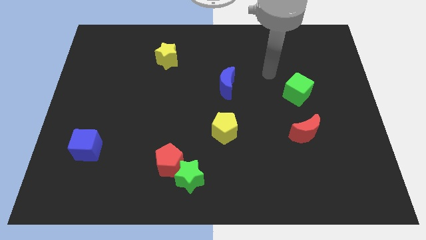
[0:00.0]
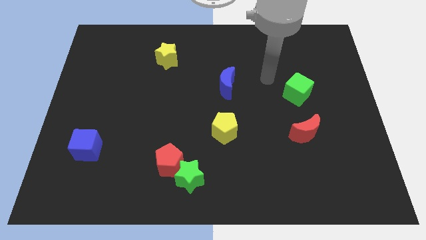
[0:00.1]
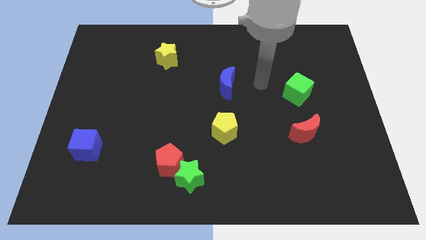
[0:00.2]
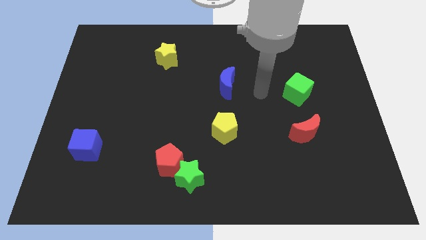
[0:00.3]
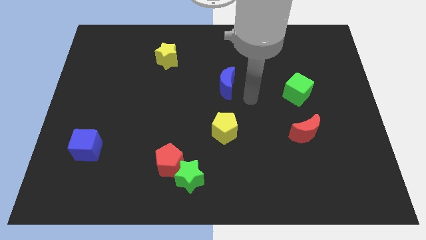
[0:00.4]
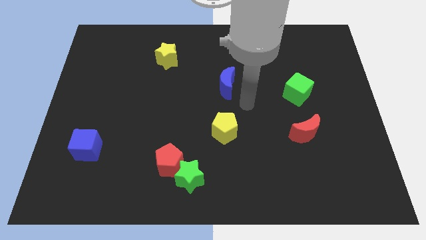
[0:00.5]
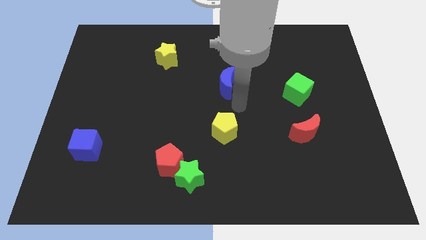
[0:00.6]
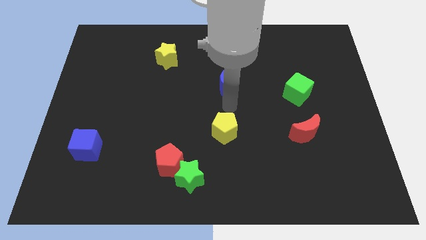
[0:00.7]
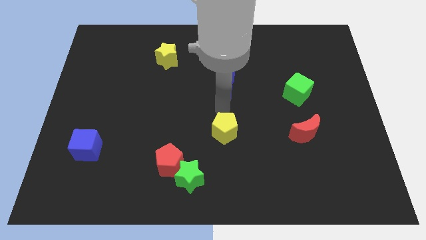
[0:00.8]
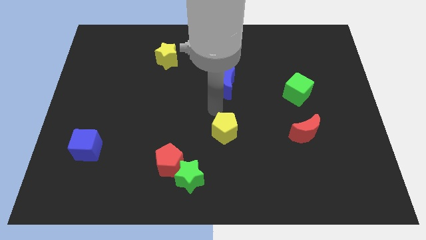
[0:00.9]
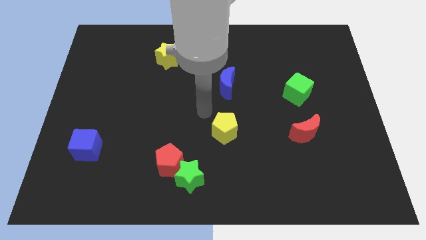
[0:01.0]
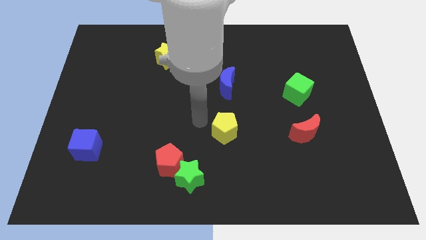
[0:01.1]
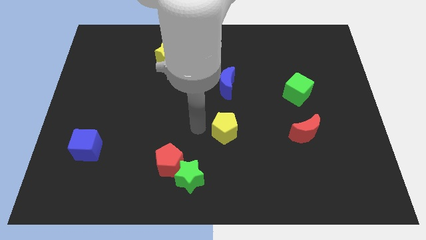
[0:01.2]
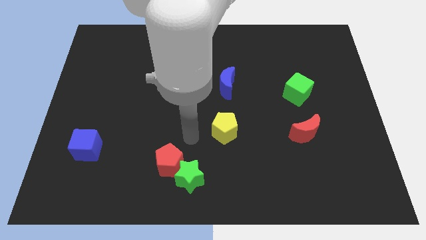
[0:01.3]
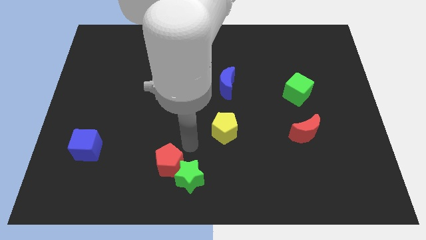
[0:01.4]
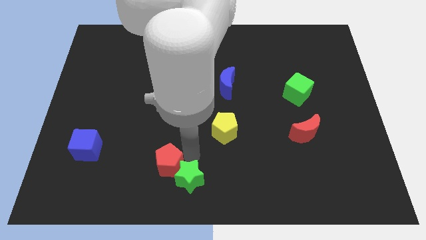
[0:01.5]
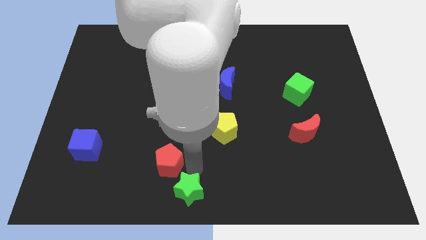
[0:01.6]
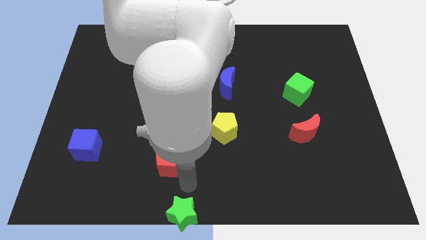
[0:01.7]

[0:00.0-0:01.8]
separate the red pentagon from the green star

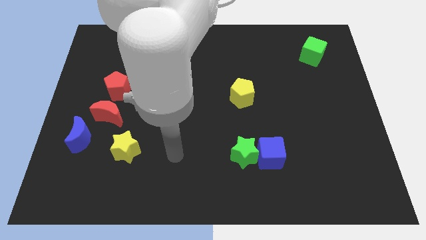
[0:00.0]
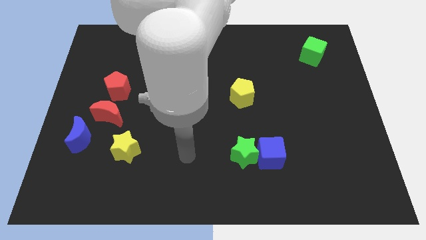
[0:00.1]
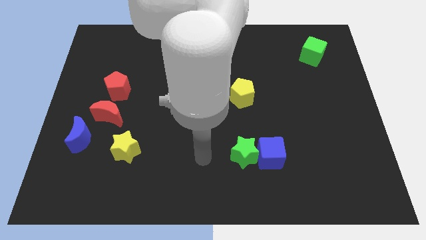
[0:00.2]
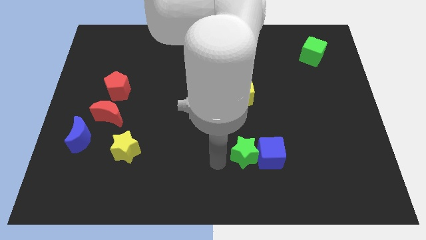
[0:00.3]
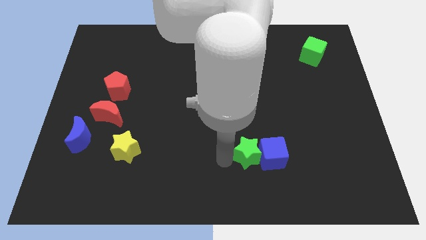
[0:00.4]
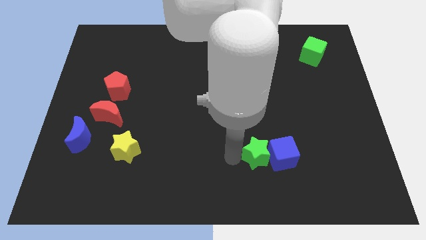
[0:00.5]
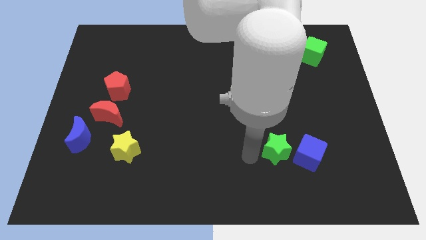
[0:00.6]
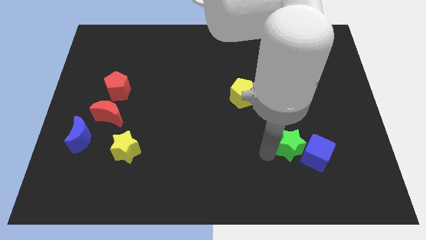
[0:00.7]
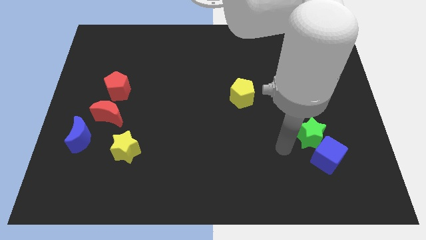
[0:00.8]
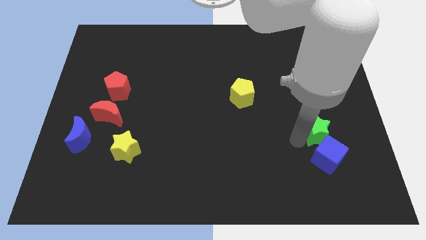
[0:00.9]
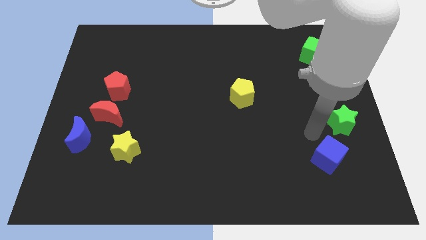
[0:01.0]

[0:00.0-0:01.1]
separate the blue cube from the green star

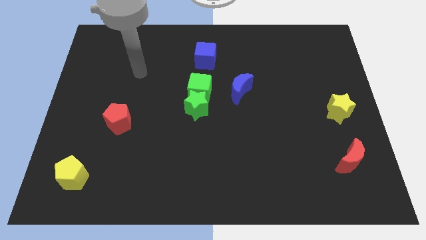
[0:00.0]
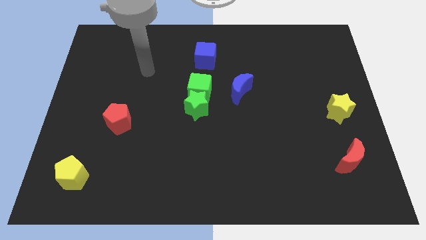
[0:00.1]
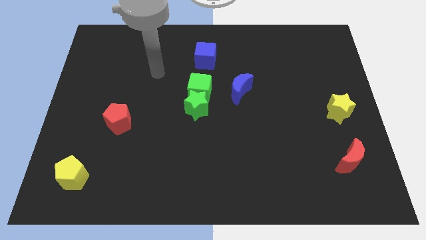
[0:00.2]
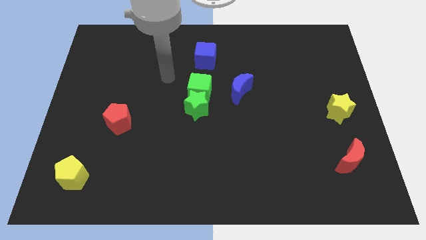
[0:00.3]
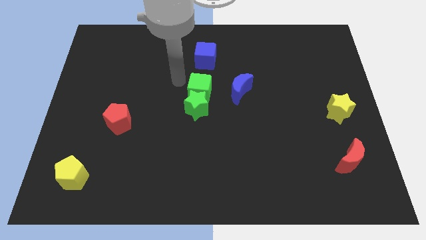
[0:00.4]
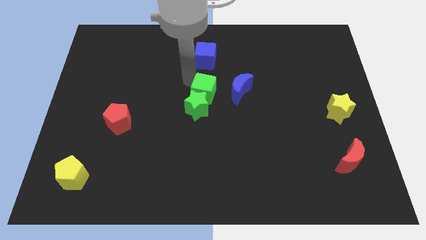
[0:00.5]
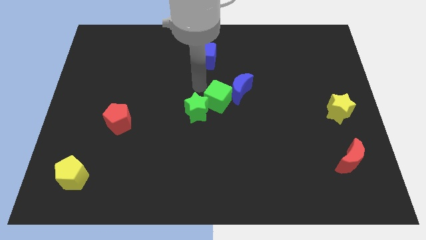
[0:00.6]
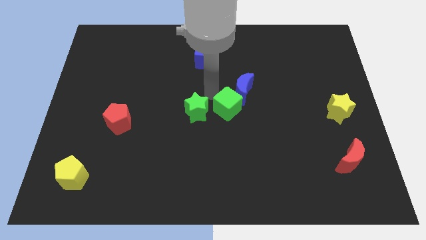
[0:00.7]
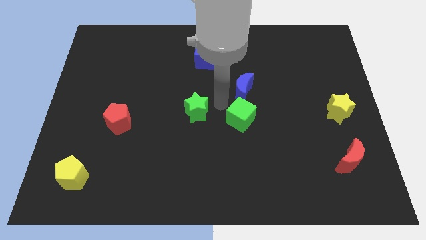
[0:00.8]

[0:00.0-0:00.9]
pull the green star apart from the green cube

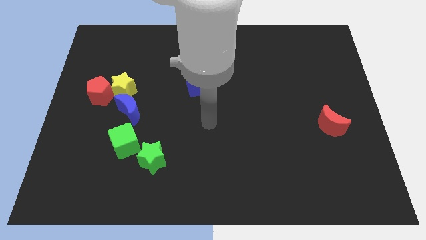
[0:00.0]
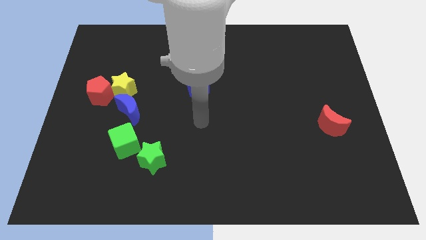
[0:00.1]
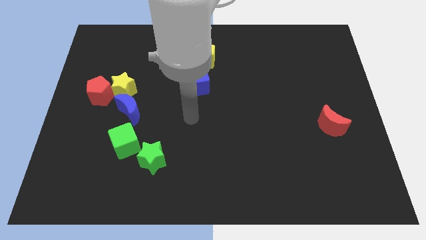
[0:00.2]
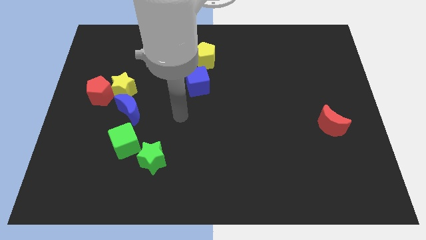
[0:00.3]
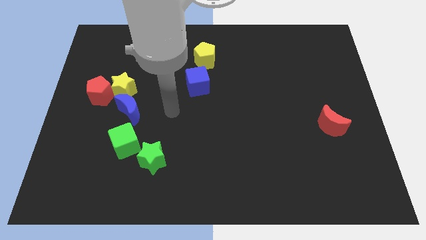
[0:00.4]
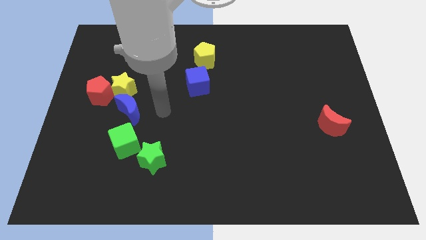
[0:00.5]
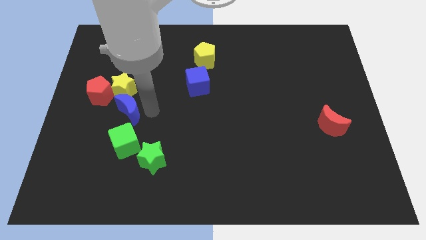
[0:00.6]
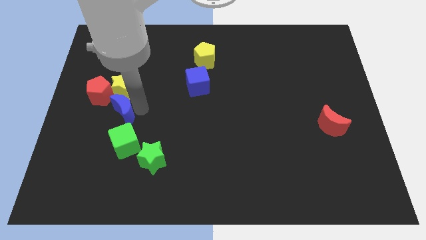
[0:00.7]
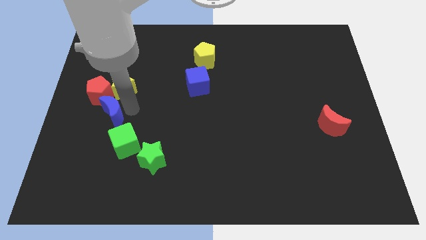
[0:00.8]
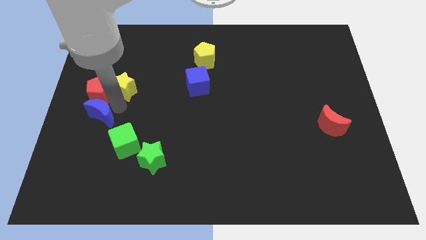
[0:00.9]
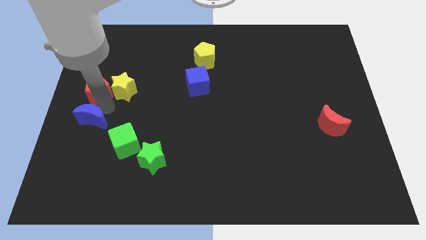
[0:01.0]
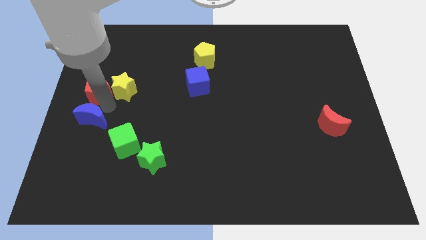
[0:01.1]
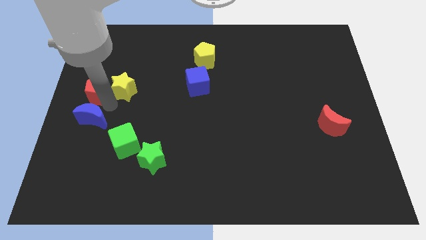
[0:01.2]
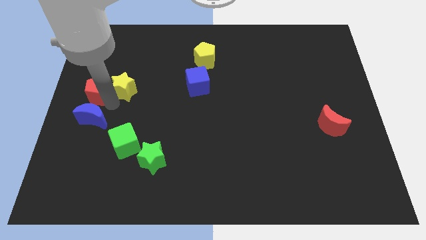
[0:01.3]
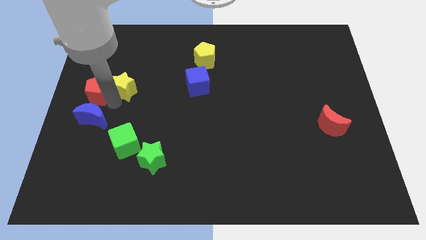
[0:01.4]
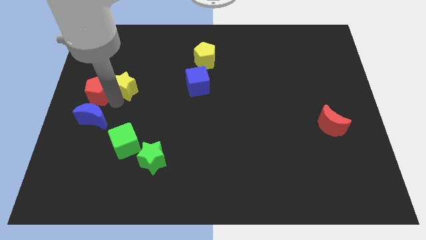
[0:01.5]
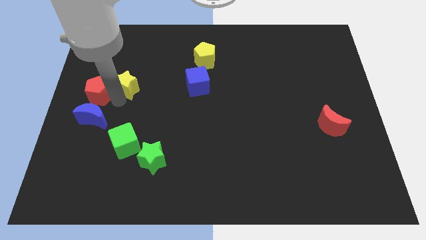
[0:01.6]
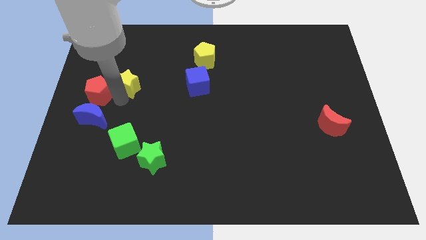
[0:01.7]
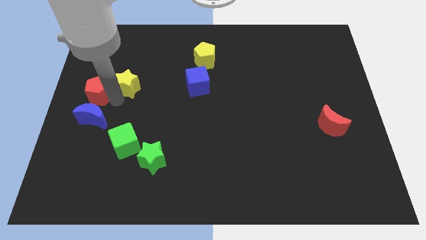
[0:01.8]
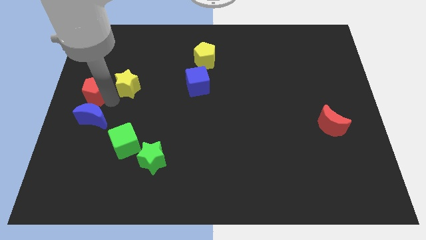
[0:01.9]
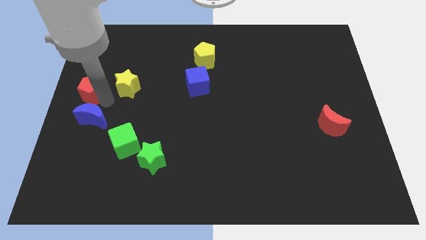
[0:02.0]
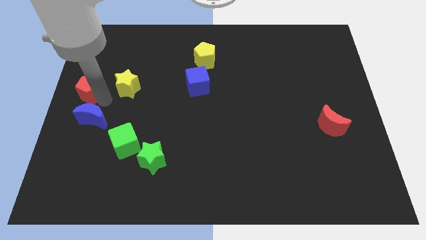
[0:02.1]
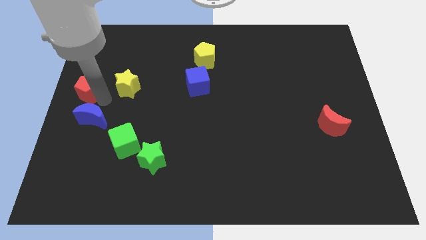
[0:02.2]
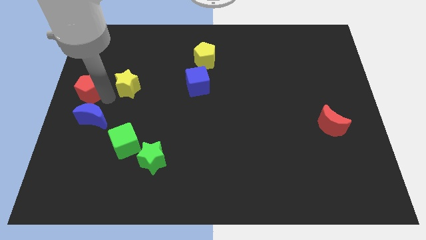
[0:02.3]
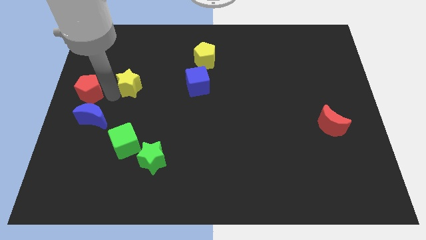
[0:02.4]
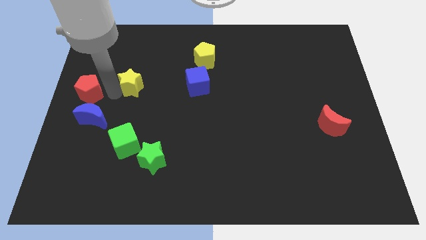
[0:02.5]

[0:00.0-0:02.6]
separate the yellow star from the red pentagon and blue moon

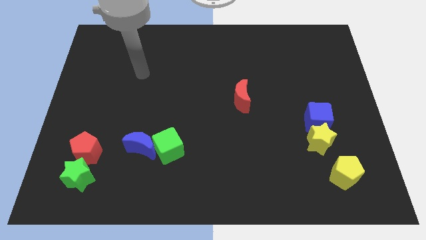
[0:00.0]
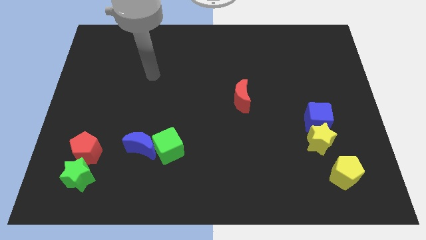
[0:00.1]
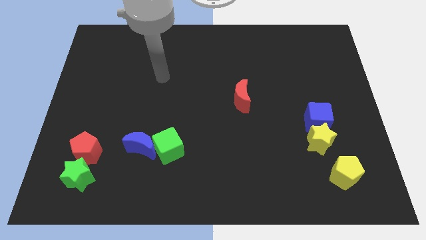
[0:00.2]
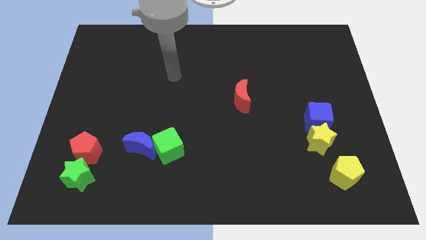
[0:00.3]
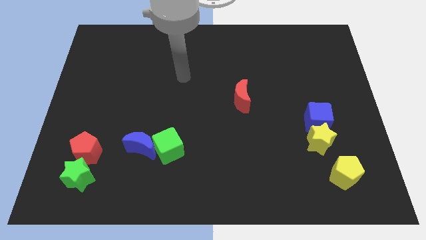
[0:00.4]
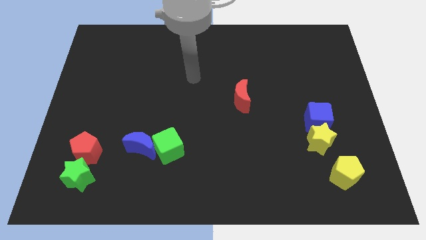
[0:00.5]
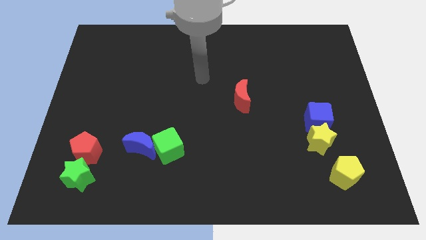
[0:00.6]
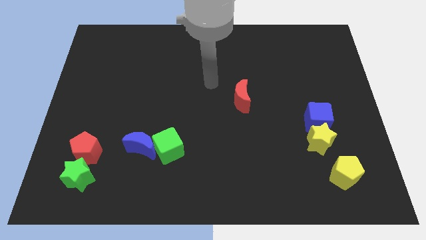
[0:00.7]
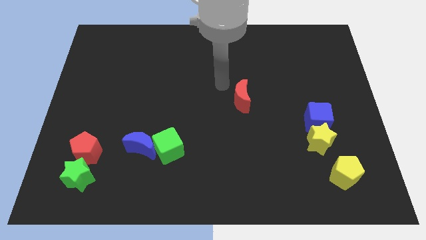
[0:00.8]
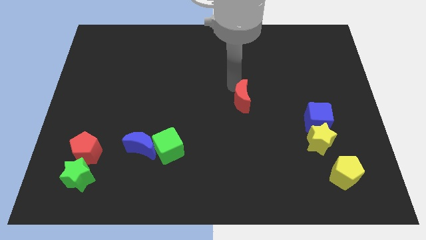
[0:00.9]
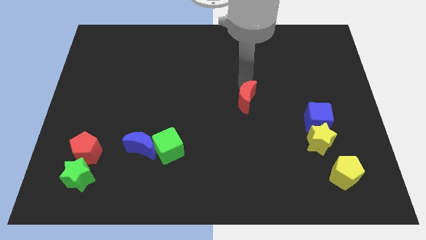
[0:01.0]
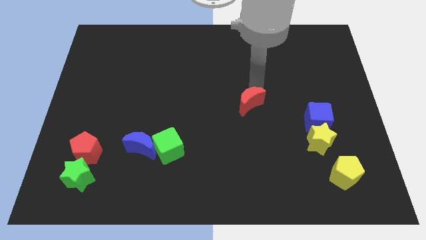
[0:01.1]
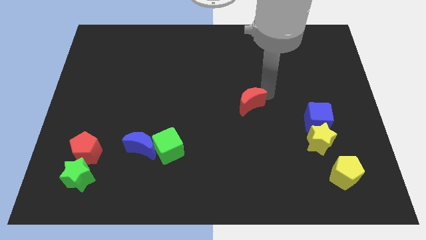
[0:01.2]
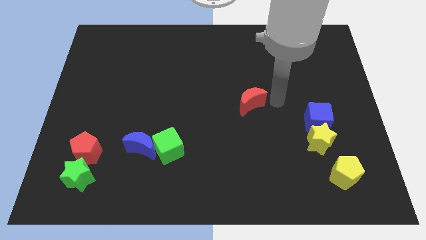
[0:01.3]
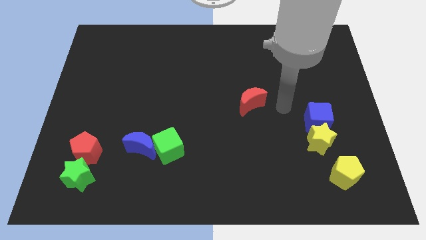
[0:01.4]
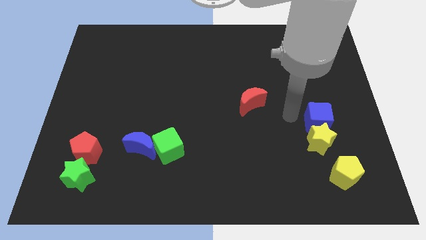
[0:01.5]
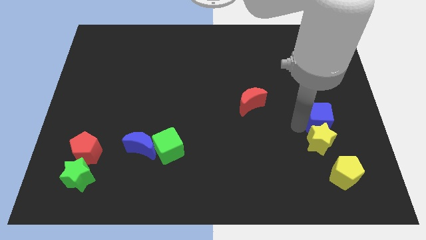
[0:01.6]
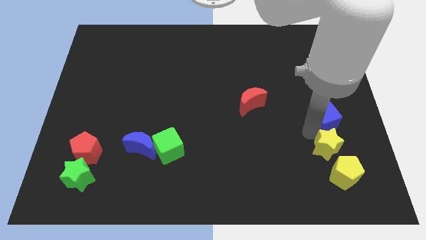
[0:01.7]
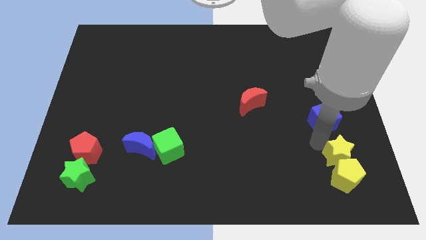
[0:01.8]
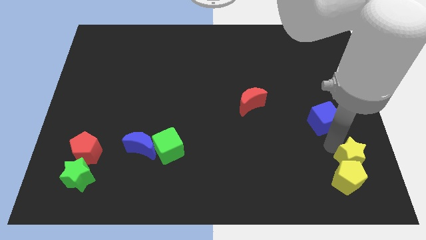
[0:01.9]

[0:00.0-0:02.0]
separate the blue cube from the yellow star

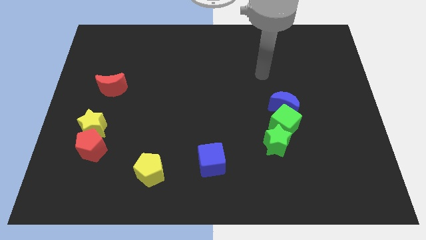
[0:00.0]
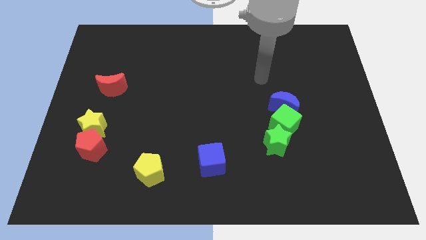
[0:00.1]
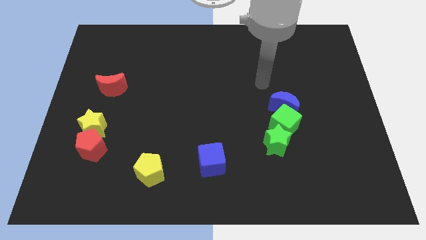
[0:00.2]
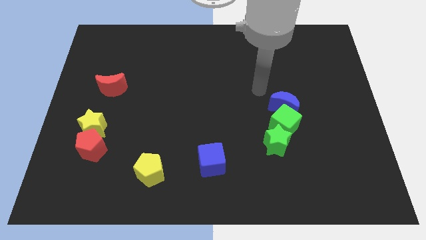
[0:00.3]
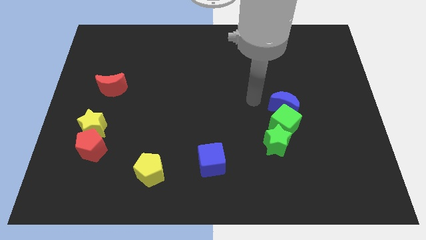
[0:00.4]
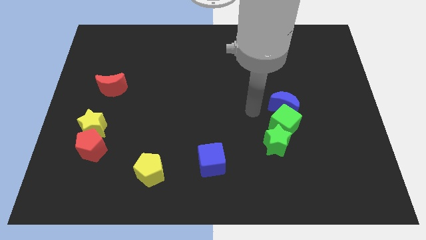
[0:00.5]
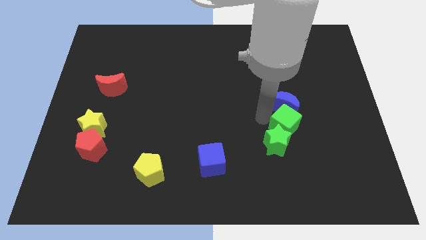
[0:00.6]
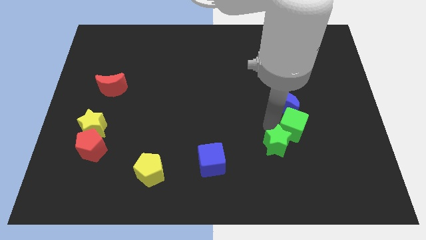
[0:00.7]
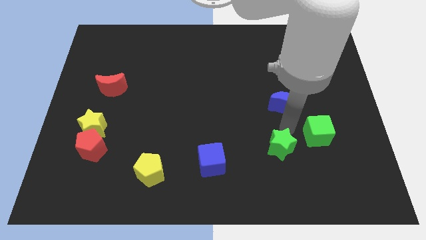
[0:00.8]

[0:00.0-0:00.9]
separate the blue moon from the green cube
